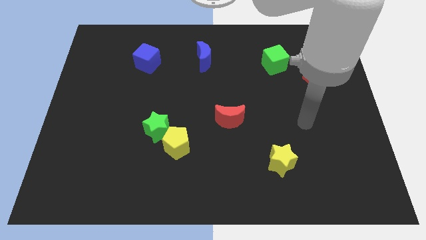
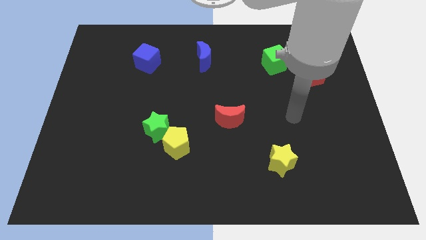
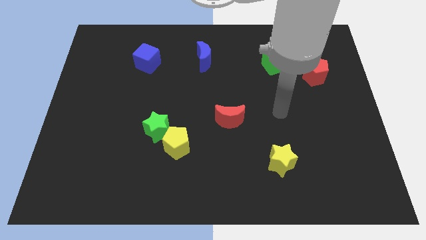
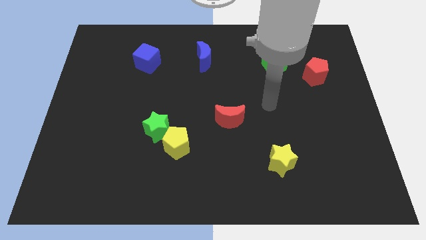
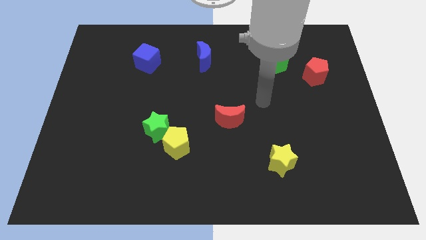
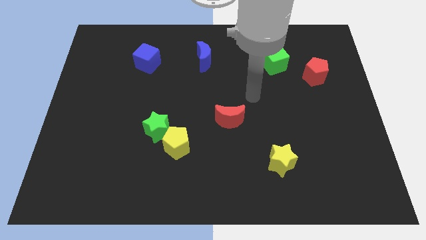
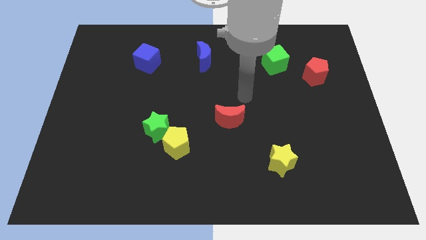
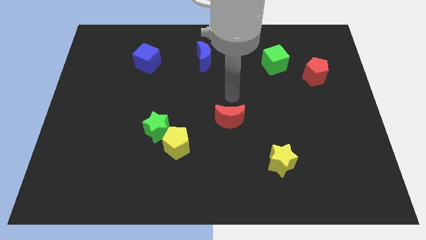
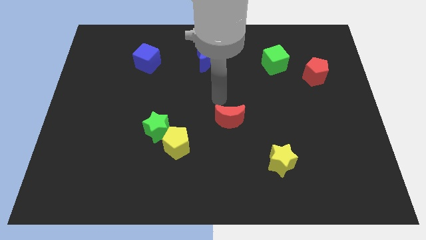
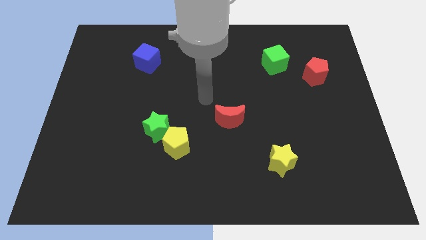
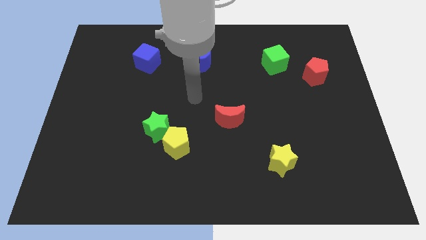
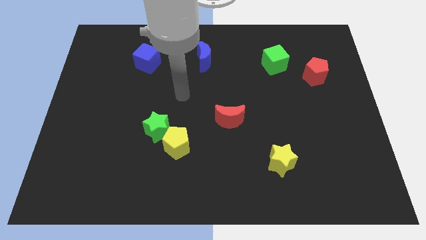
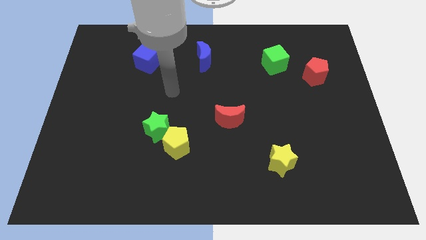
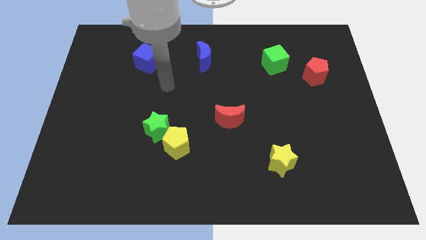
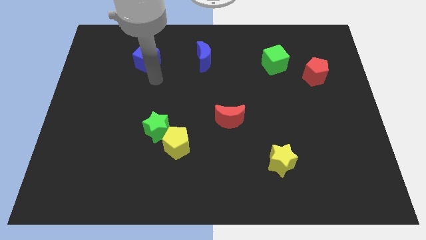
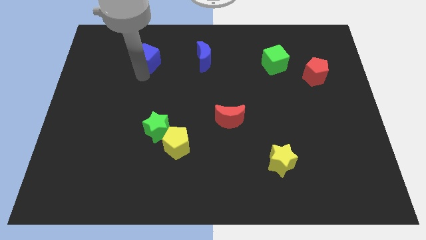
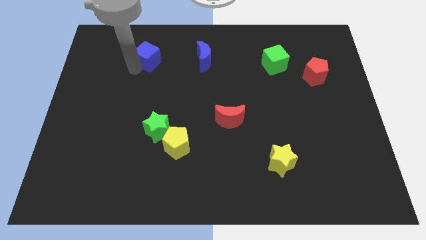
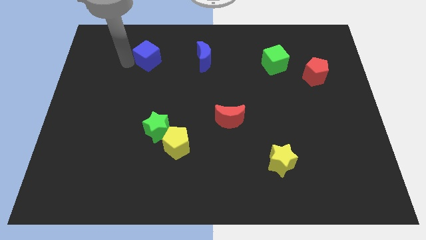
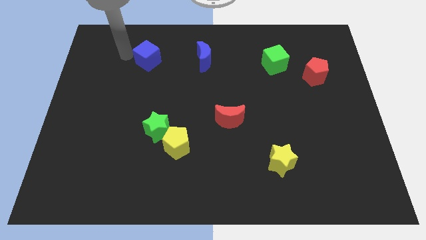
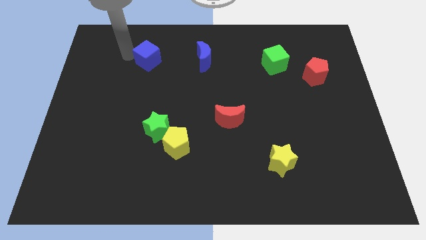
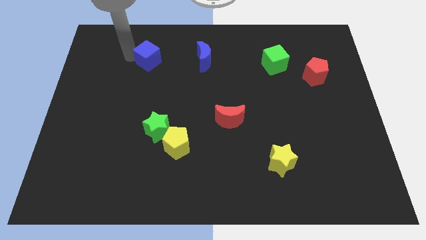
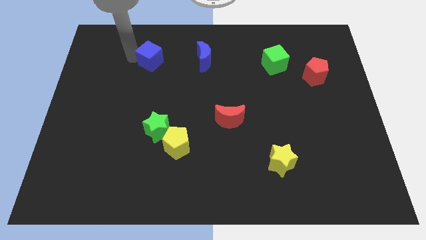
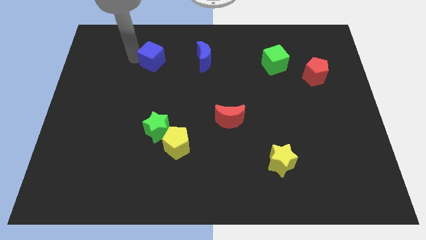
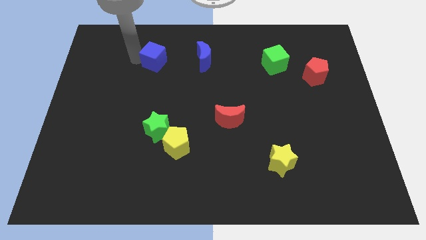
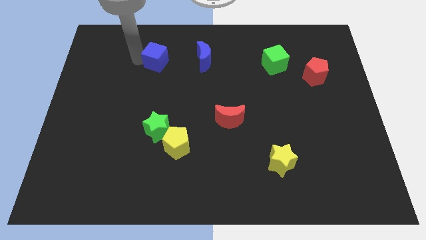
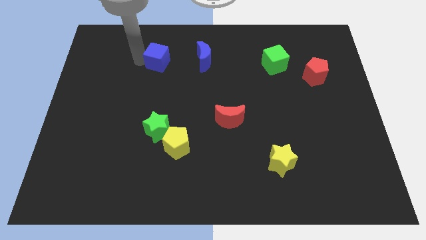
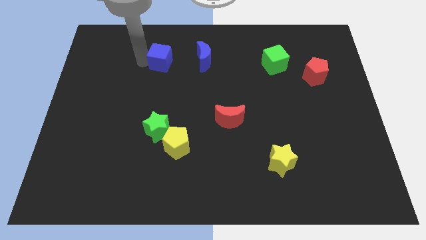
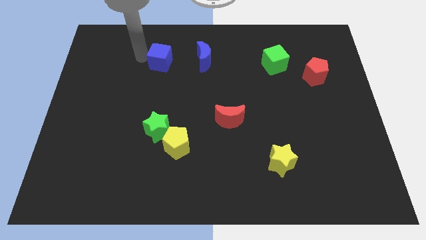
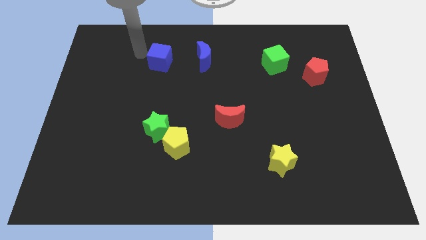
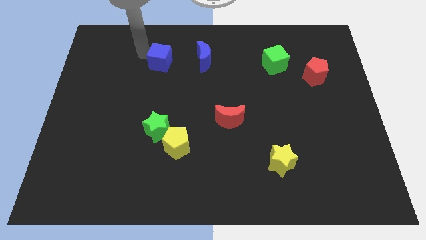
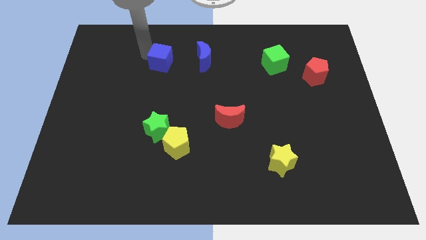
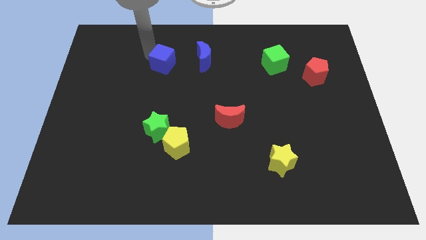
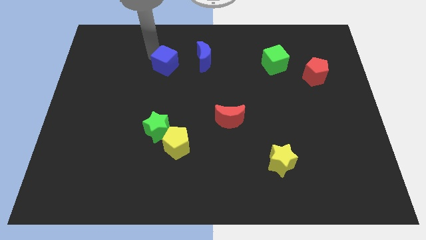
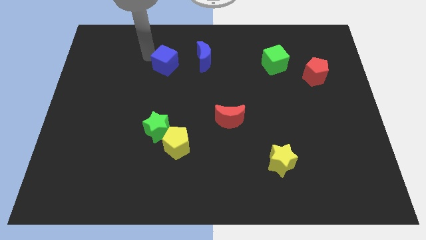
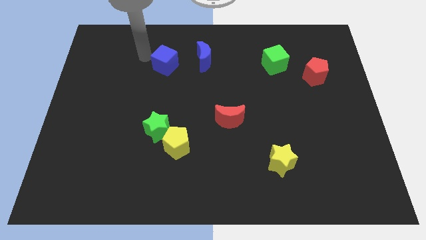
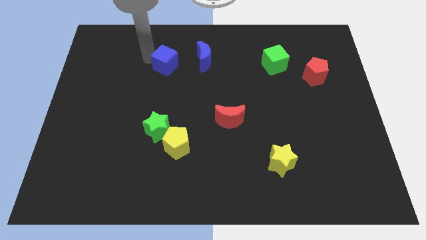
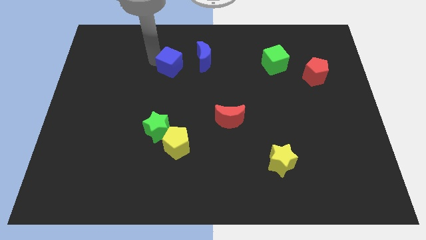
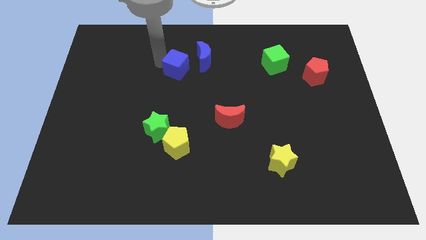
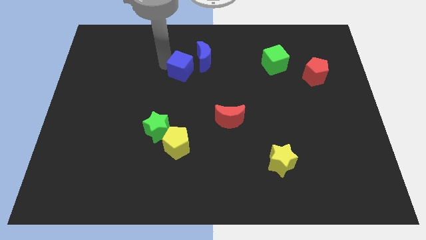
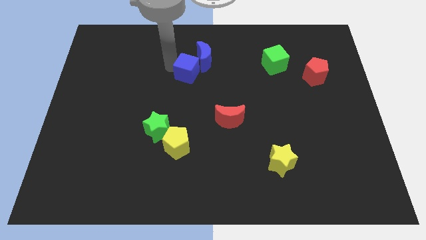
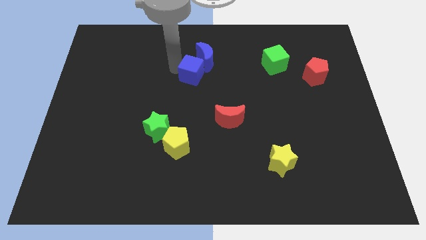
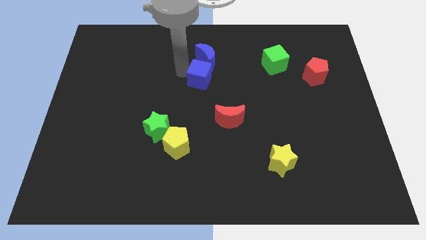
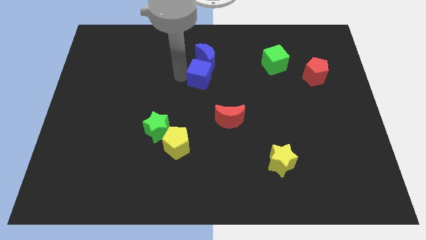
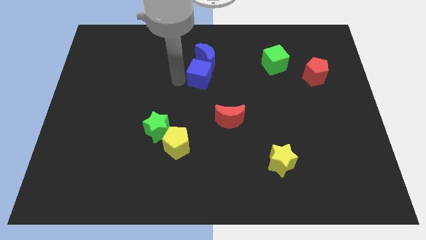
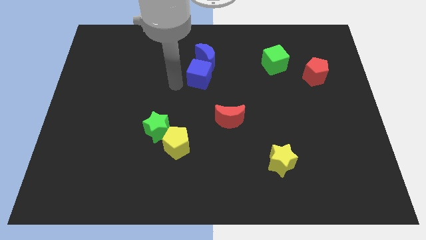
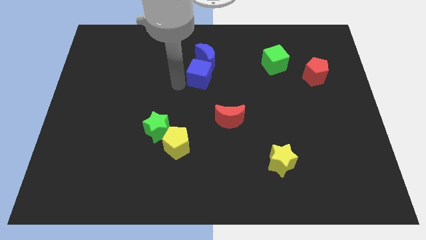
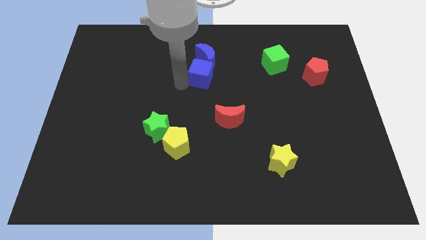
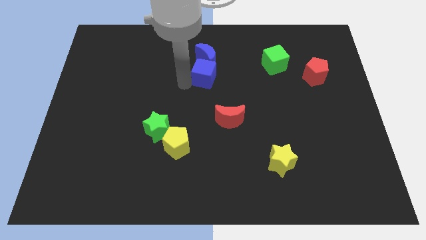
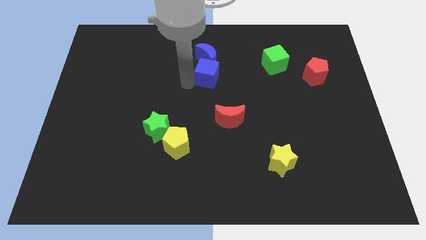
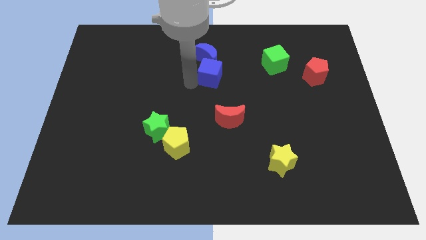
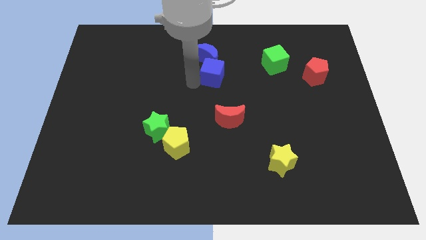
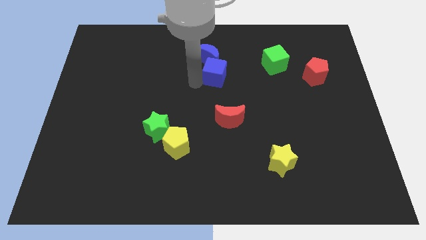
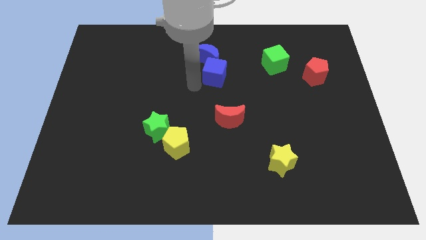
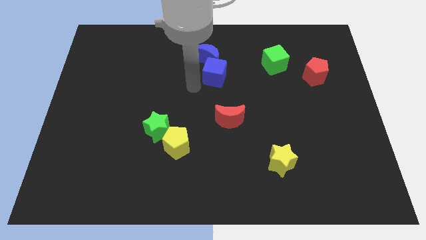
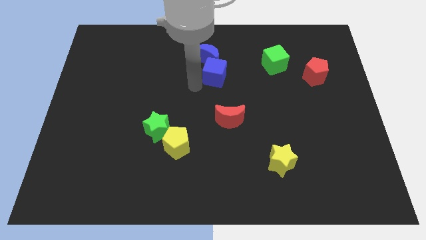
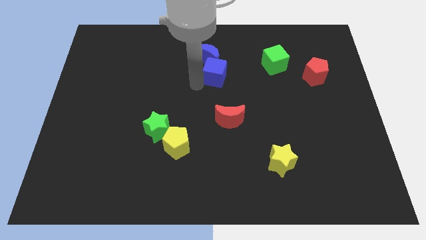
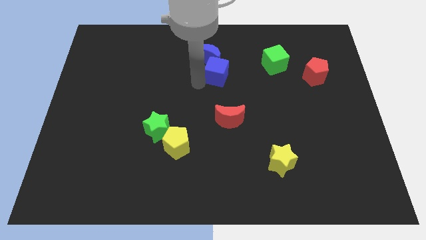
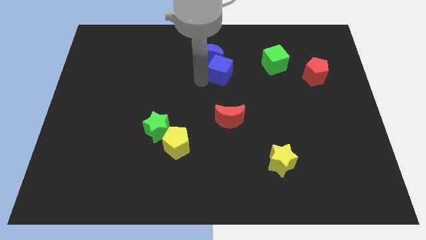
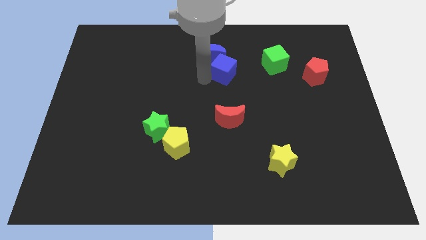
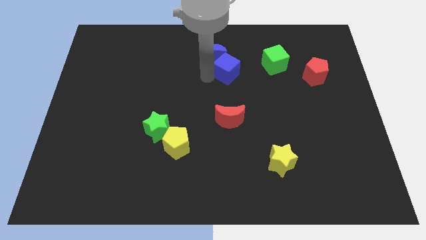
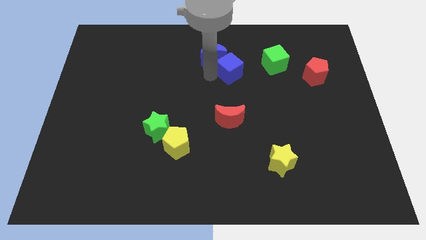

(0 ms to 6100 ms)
push the blue cube to the right of the blue moon

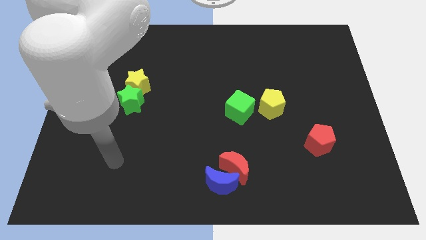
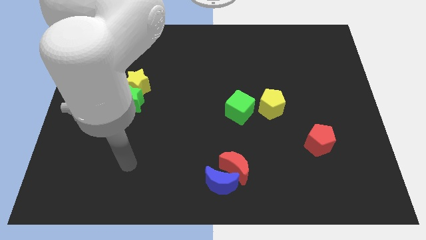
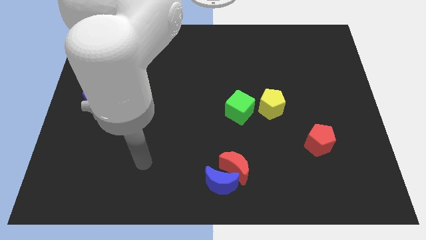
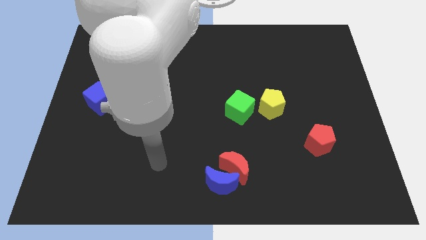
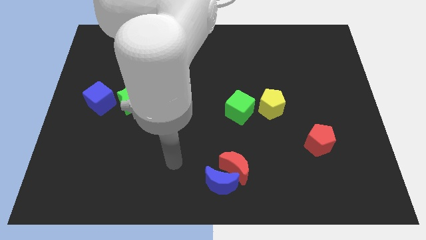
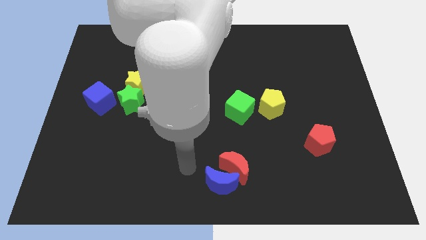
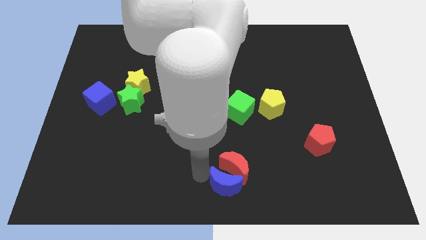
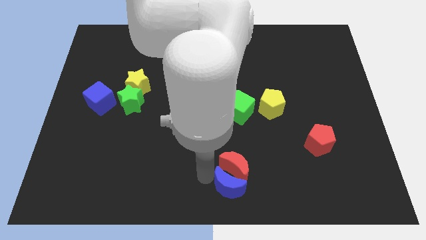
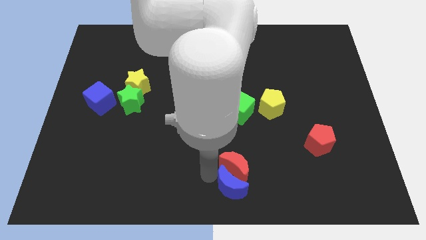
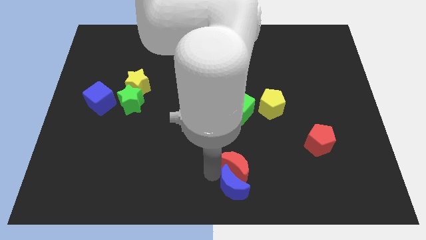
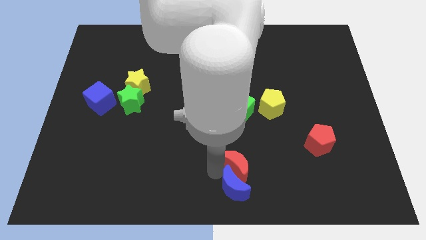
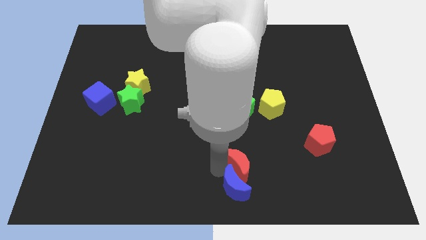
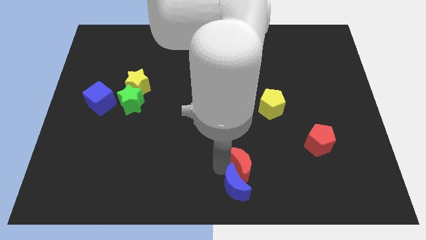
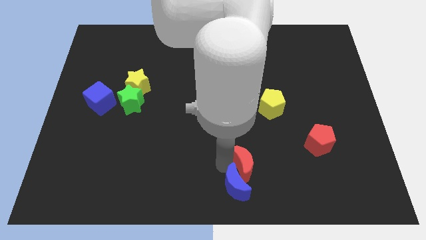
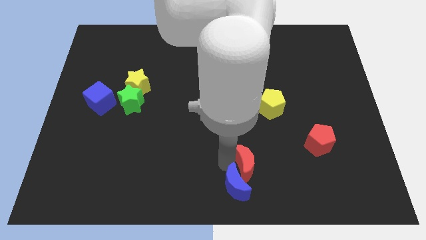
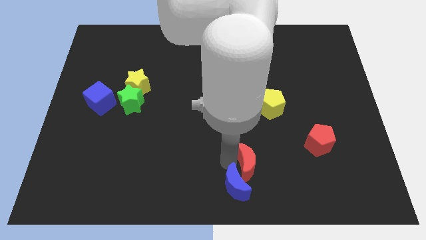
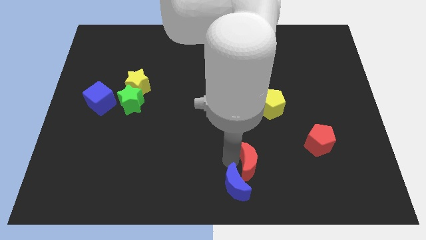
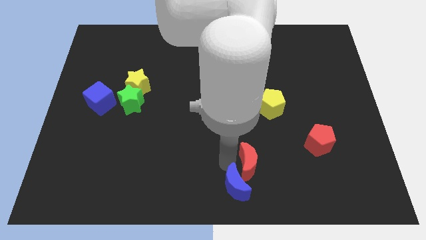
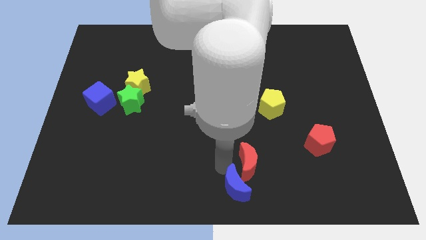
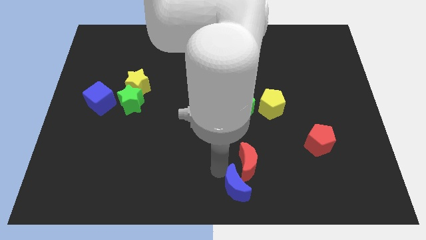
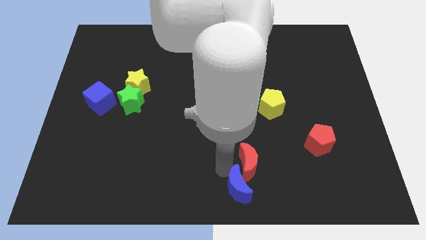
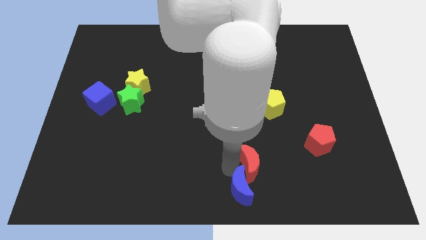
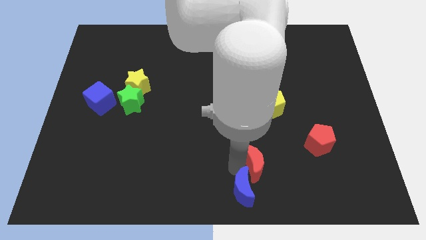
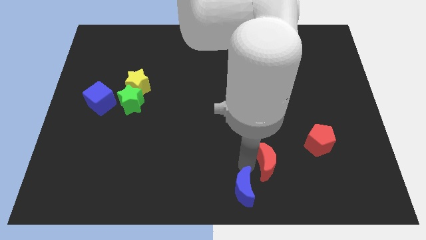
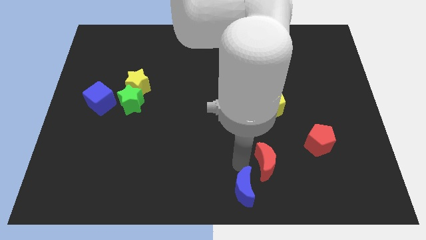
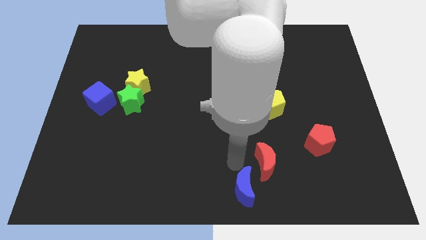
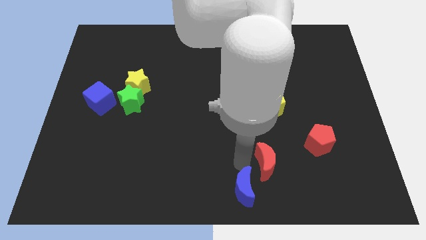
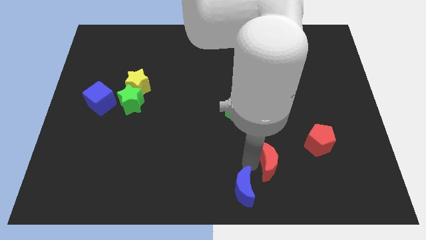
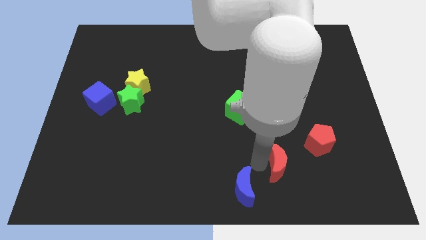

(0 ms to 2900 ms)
slide the red moon diagonally down and to the left of the red pentagon
